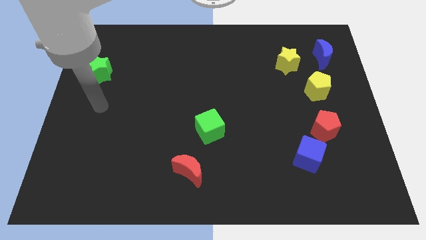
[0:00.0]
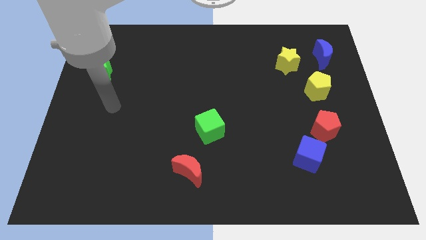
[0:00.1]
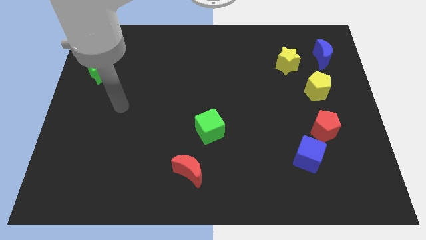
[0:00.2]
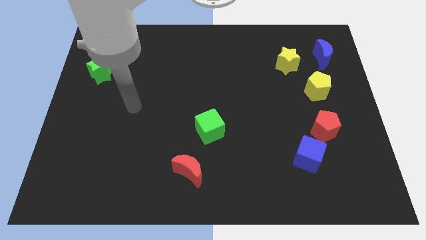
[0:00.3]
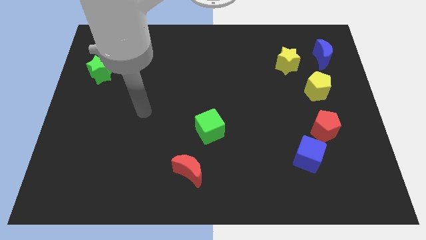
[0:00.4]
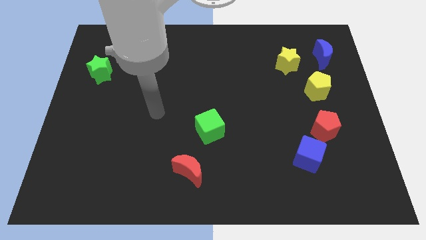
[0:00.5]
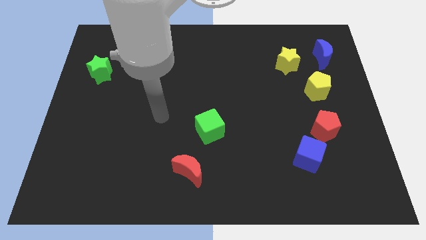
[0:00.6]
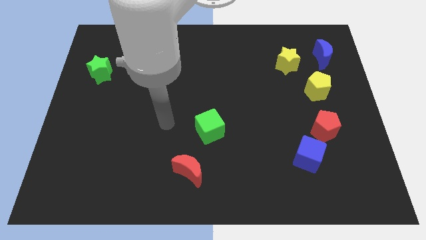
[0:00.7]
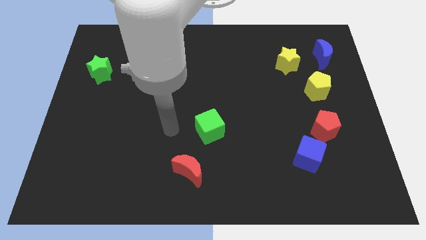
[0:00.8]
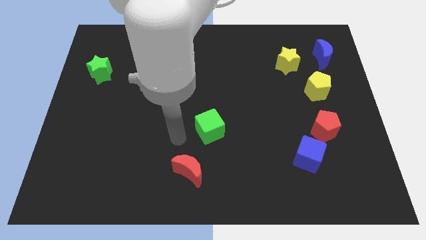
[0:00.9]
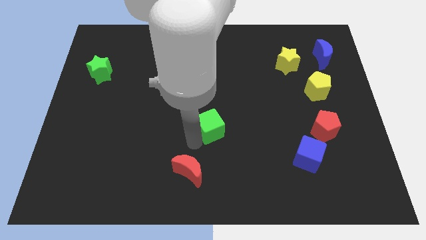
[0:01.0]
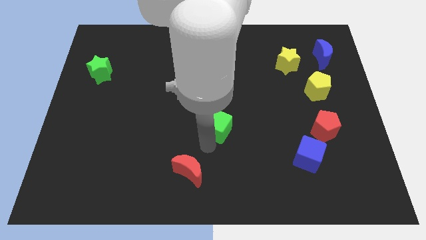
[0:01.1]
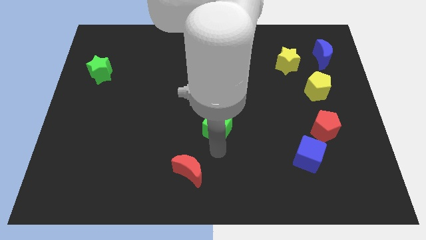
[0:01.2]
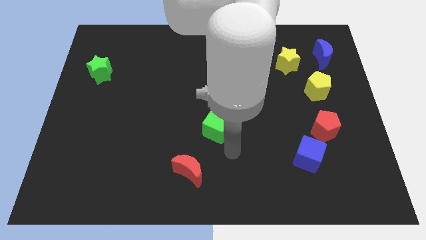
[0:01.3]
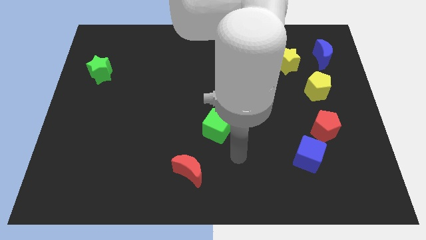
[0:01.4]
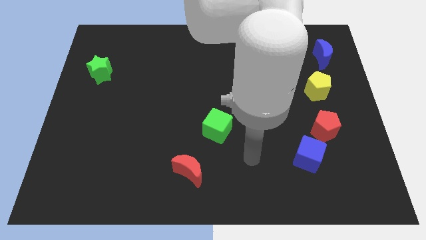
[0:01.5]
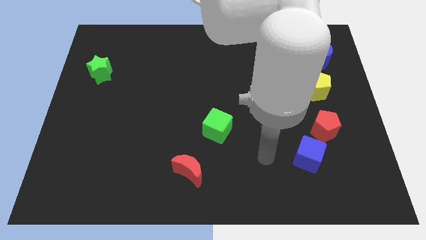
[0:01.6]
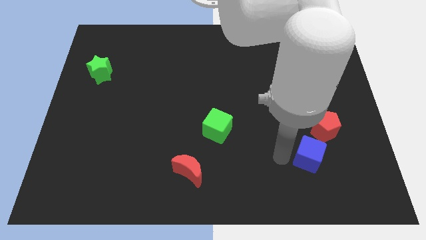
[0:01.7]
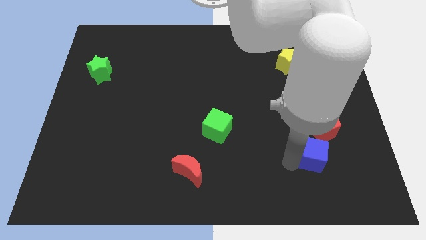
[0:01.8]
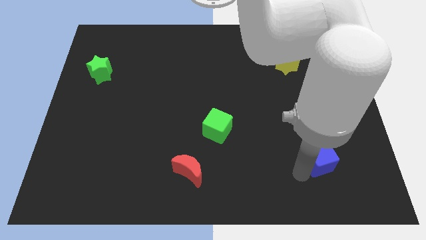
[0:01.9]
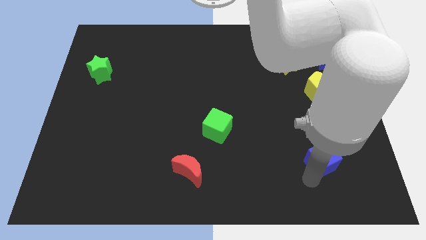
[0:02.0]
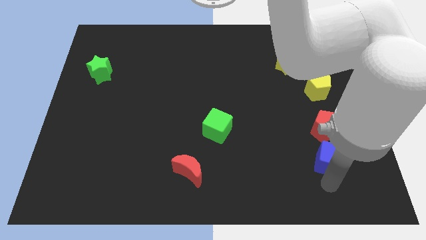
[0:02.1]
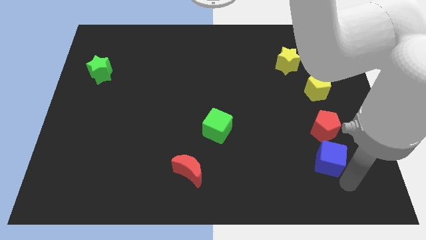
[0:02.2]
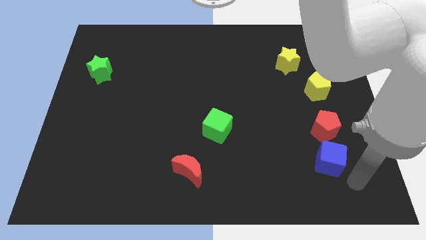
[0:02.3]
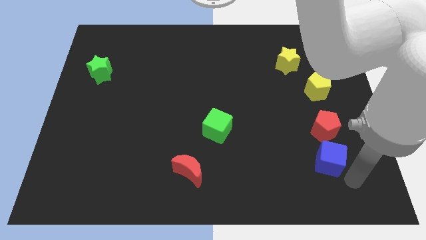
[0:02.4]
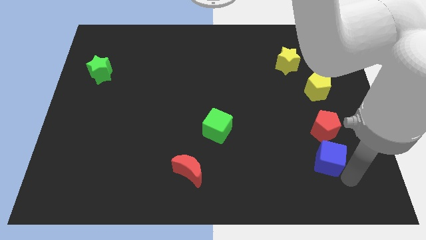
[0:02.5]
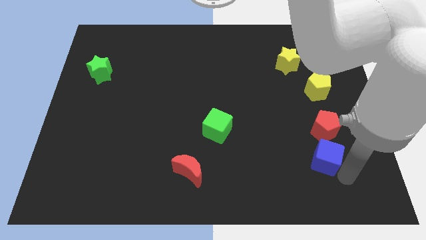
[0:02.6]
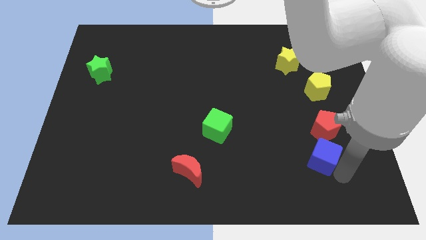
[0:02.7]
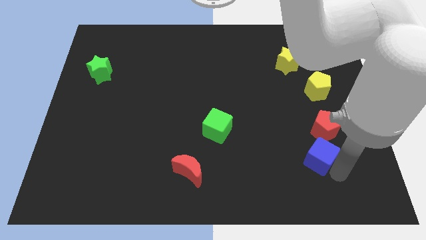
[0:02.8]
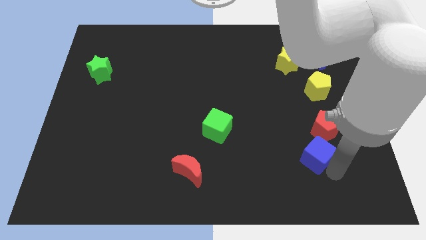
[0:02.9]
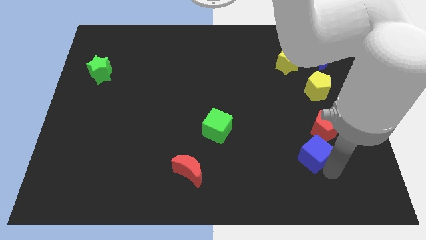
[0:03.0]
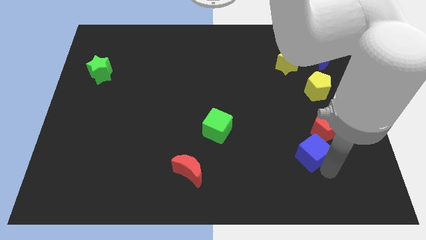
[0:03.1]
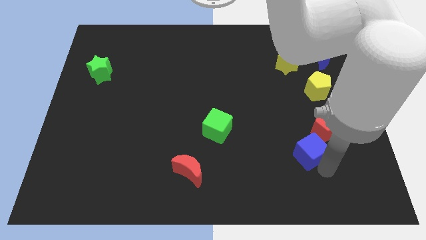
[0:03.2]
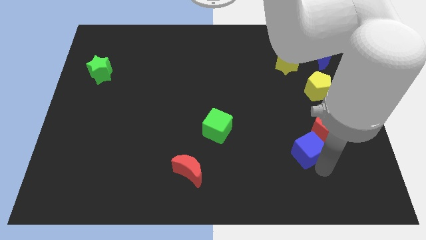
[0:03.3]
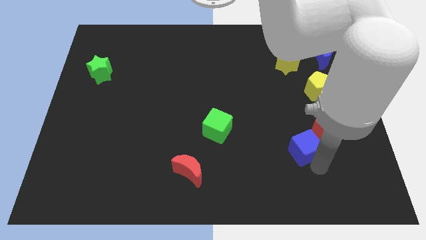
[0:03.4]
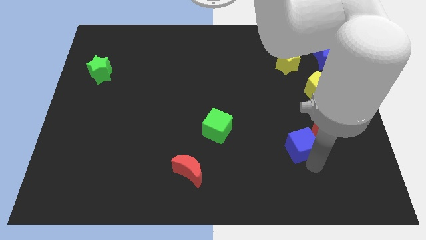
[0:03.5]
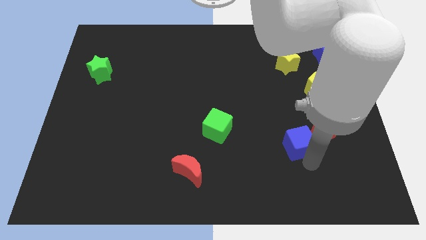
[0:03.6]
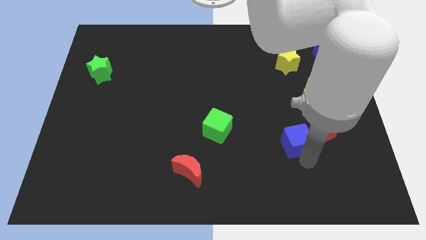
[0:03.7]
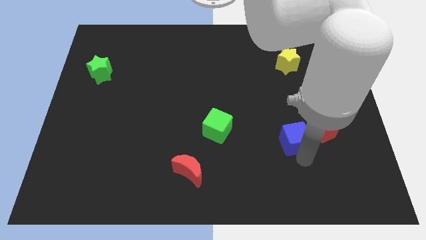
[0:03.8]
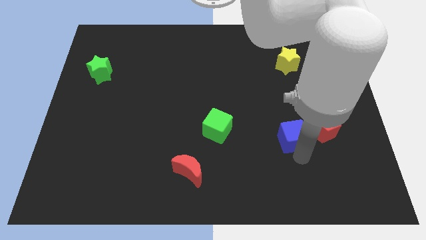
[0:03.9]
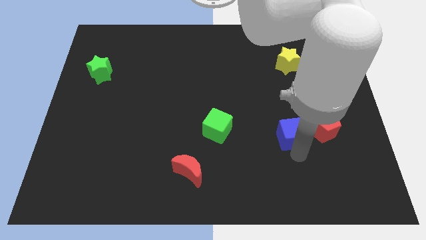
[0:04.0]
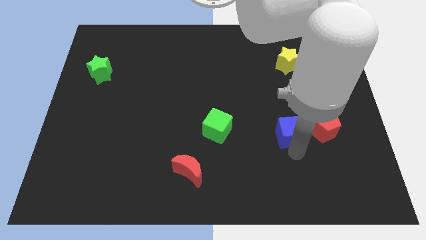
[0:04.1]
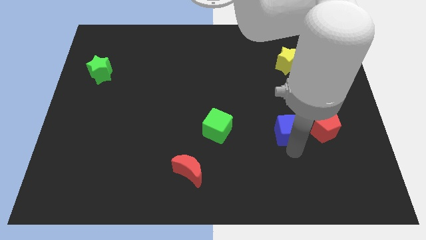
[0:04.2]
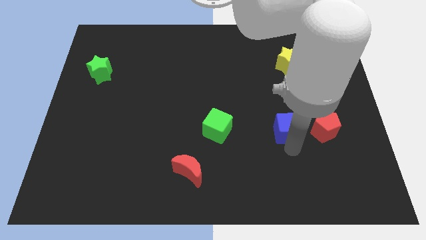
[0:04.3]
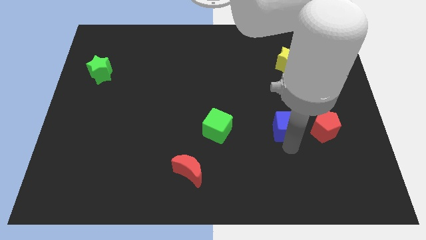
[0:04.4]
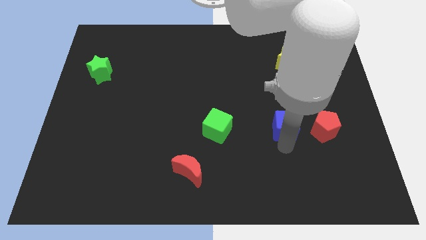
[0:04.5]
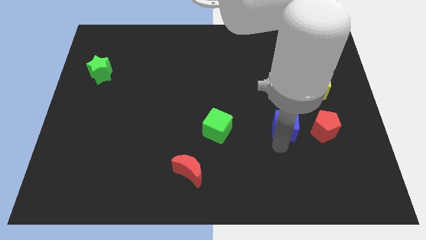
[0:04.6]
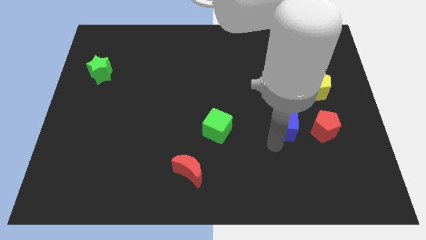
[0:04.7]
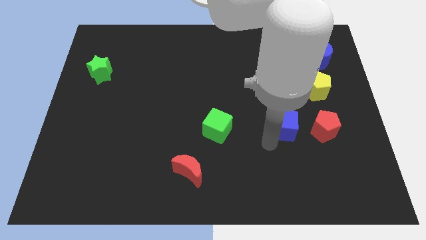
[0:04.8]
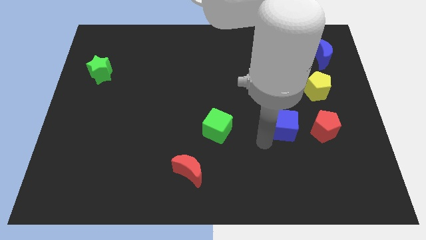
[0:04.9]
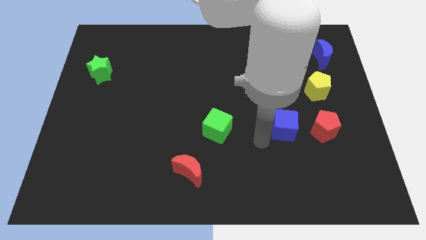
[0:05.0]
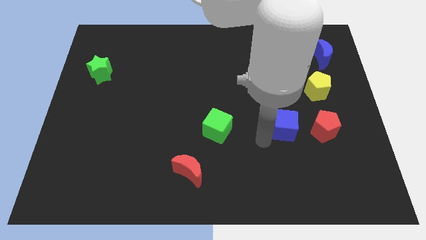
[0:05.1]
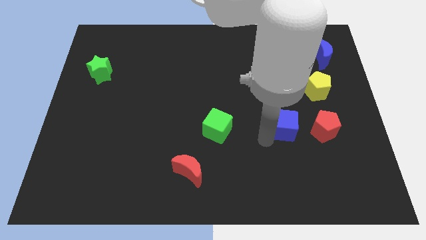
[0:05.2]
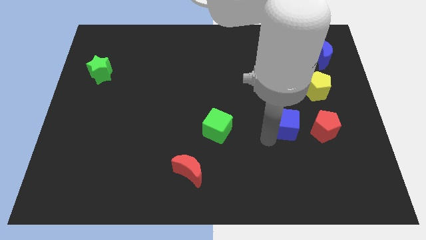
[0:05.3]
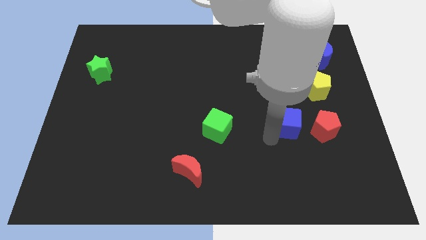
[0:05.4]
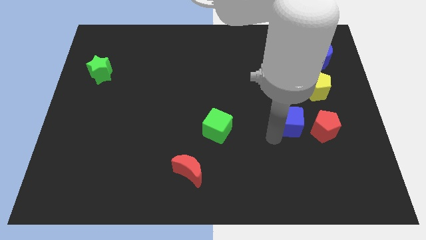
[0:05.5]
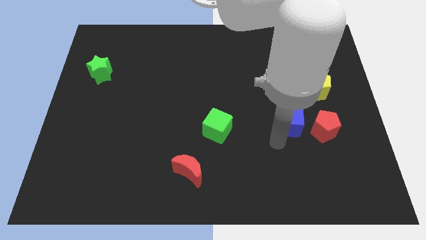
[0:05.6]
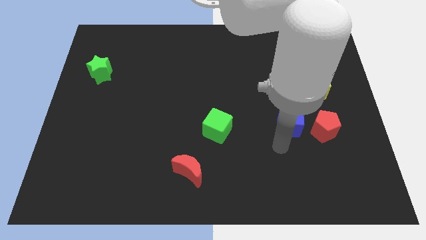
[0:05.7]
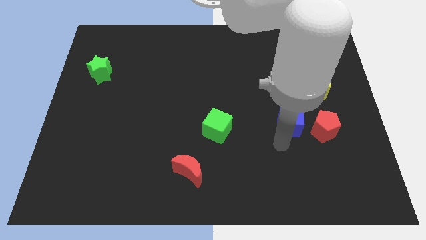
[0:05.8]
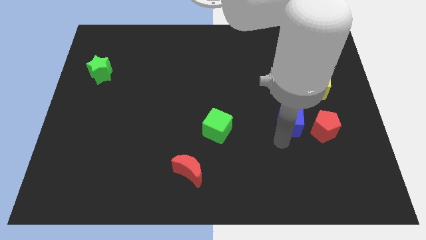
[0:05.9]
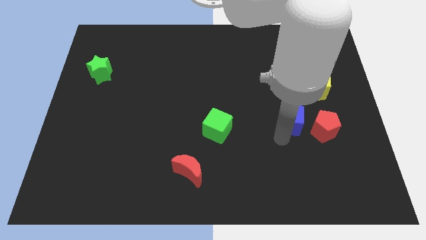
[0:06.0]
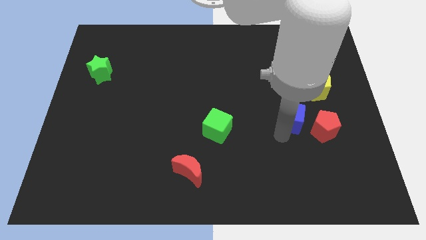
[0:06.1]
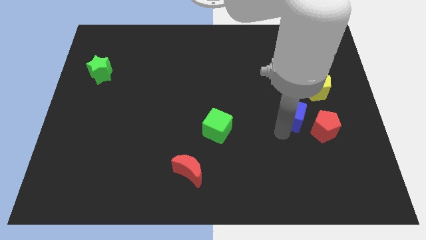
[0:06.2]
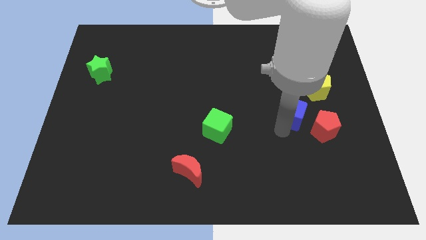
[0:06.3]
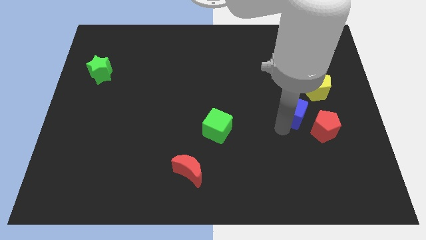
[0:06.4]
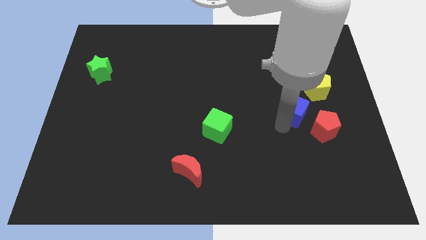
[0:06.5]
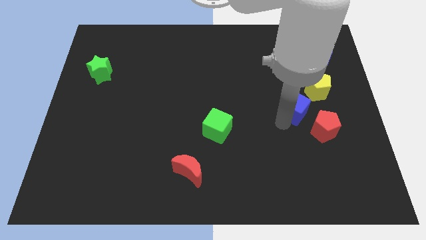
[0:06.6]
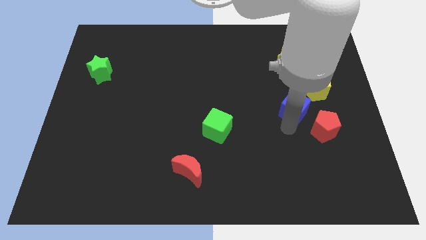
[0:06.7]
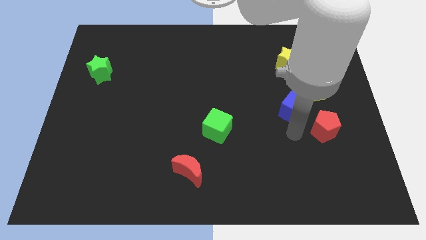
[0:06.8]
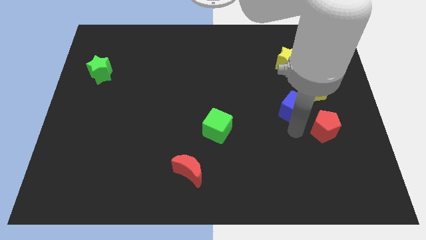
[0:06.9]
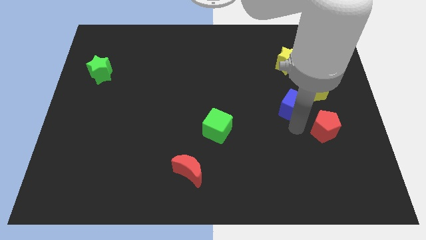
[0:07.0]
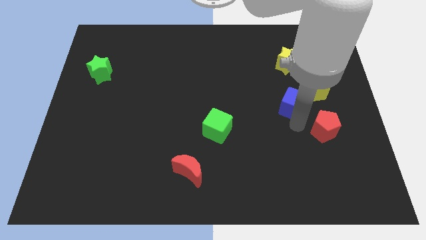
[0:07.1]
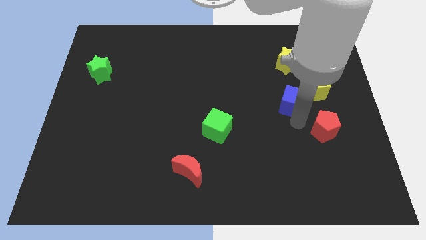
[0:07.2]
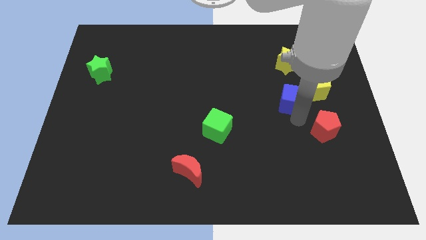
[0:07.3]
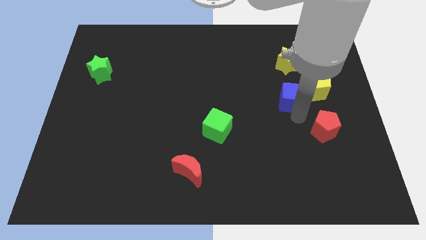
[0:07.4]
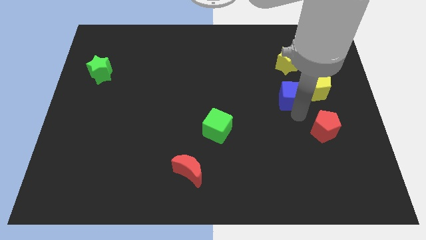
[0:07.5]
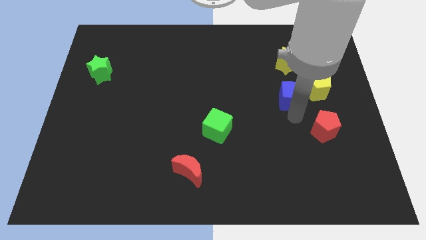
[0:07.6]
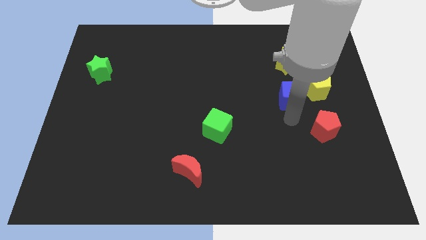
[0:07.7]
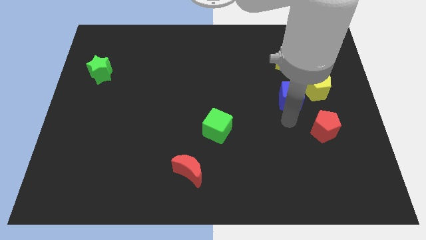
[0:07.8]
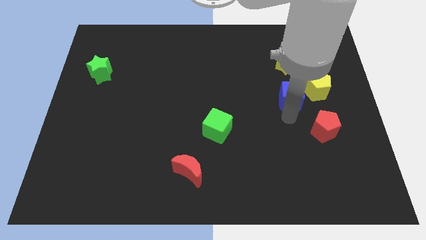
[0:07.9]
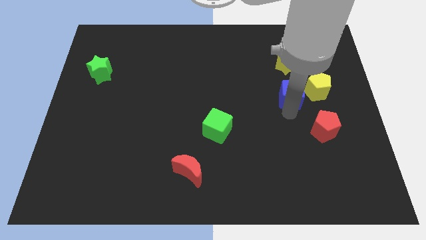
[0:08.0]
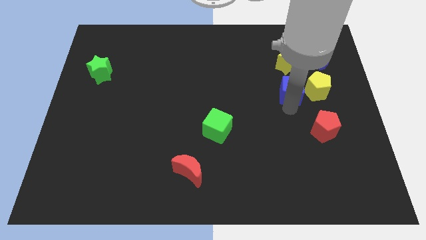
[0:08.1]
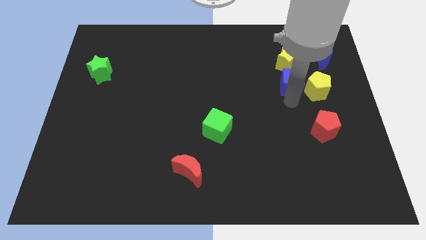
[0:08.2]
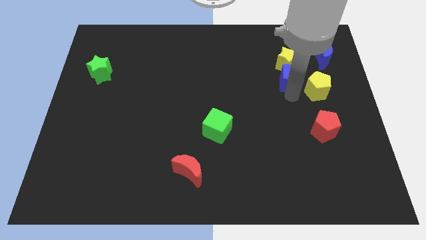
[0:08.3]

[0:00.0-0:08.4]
push the blue cube next to the yellow star
